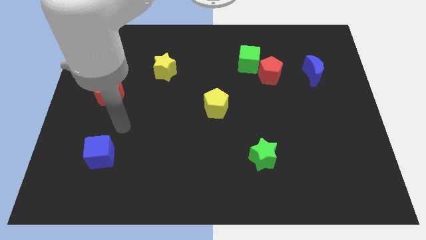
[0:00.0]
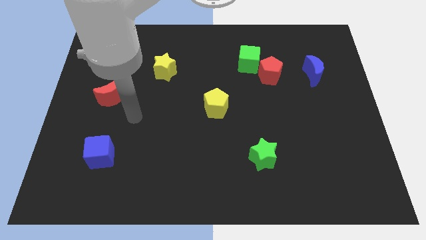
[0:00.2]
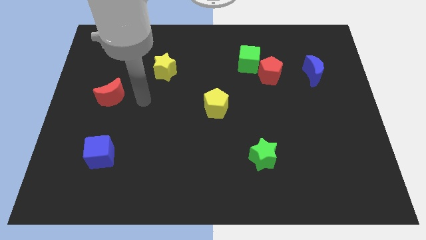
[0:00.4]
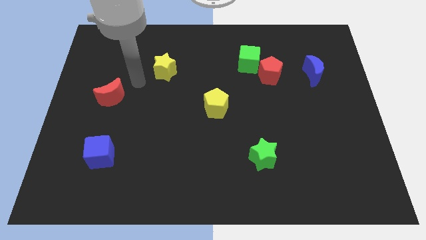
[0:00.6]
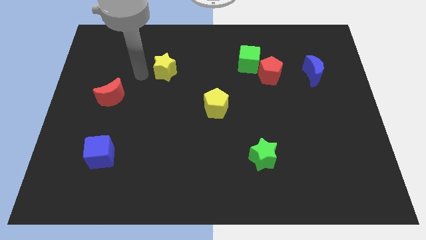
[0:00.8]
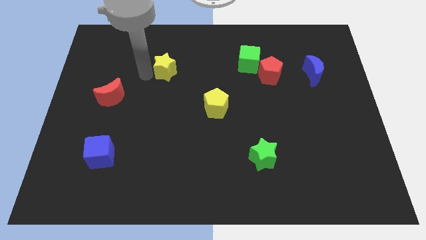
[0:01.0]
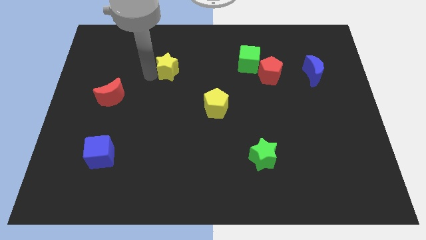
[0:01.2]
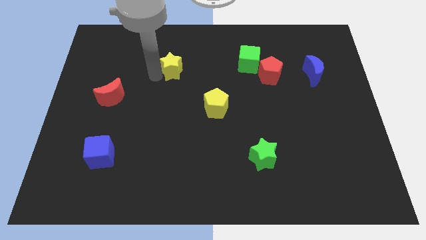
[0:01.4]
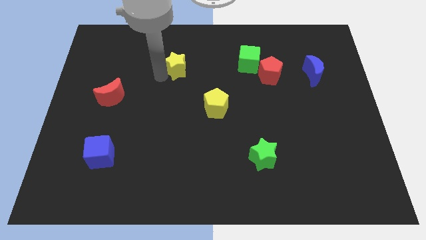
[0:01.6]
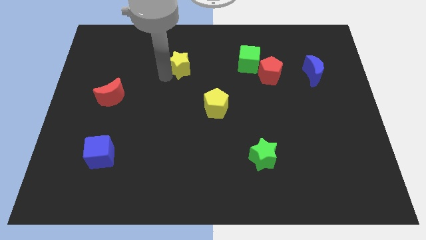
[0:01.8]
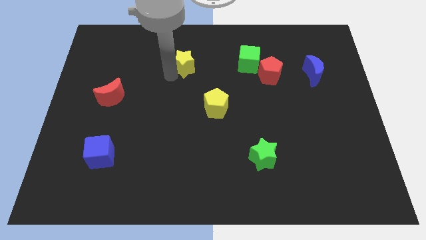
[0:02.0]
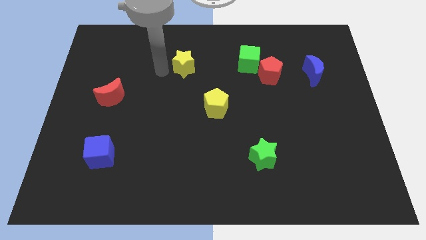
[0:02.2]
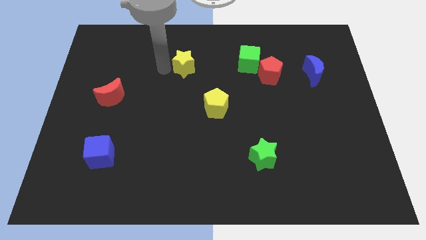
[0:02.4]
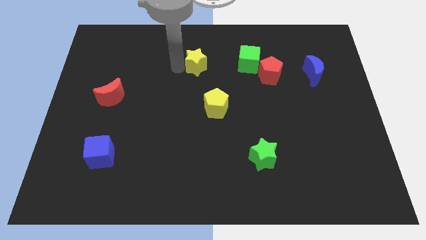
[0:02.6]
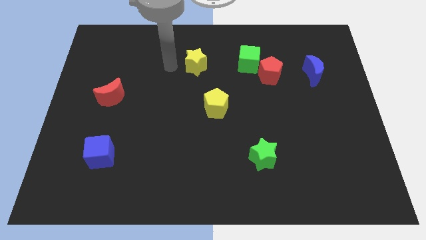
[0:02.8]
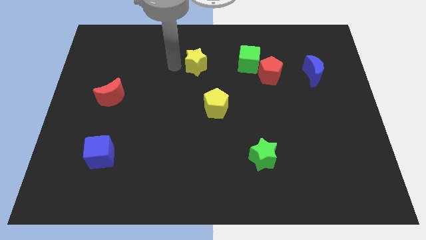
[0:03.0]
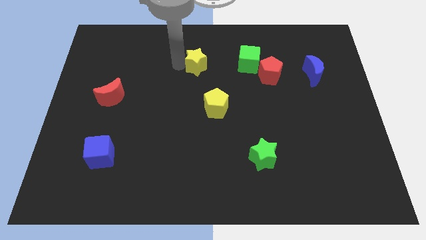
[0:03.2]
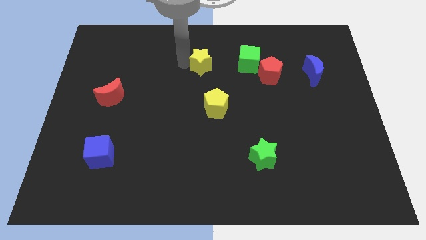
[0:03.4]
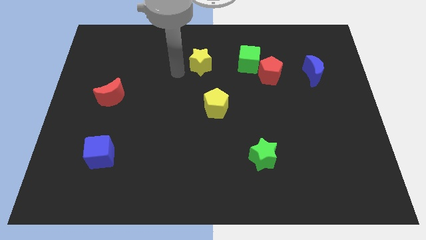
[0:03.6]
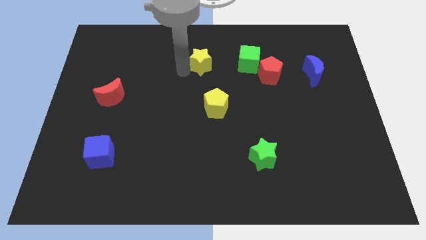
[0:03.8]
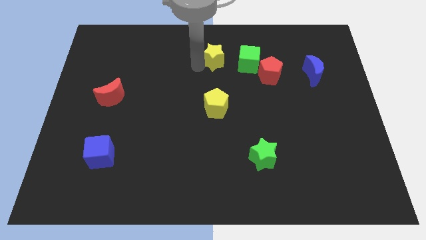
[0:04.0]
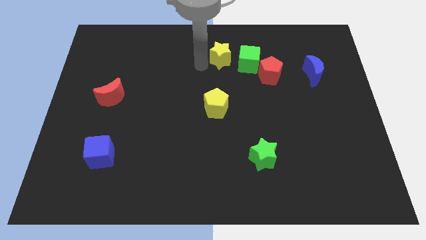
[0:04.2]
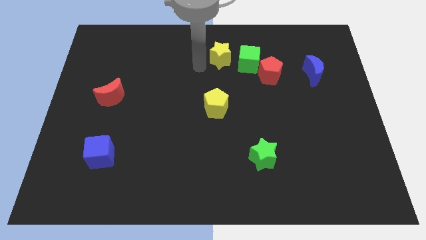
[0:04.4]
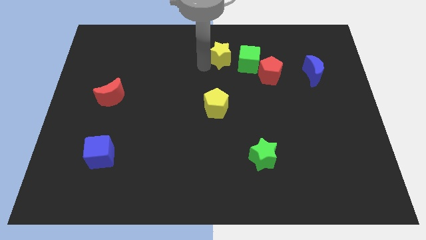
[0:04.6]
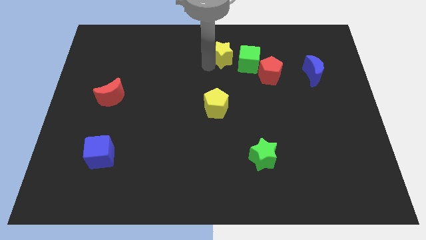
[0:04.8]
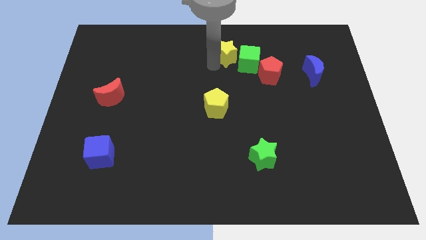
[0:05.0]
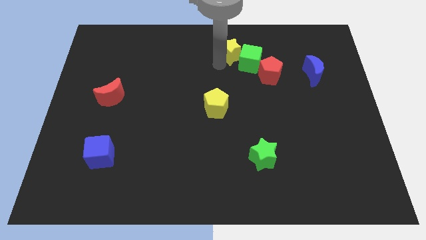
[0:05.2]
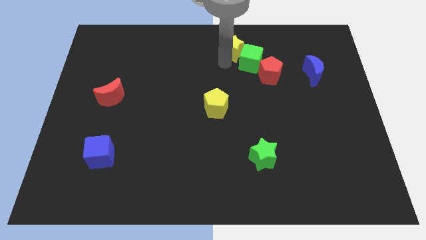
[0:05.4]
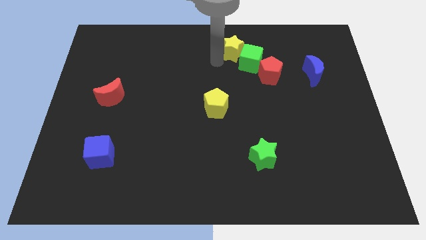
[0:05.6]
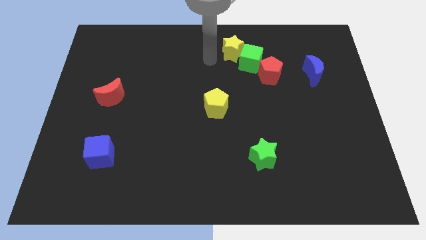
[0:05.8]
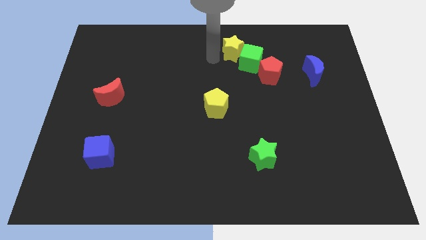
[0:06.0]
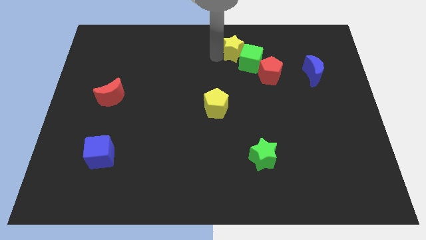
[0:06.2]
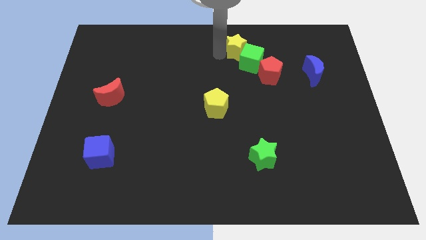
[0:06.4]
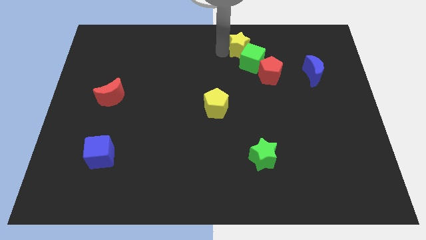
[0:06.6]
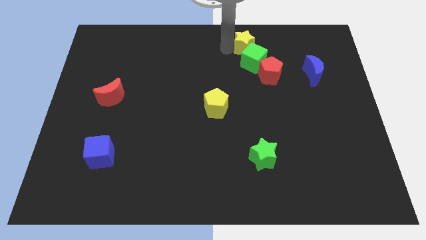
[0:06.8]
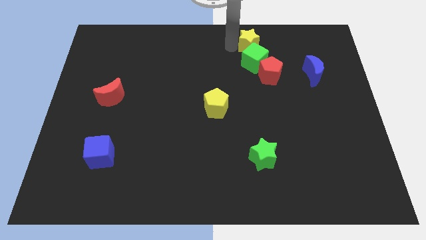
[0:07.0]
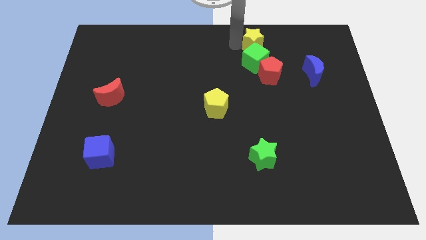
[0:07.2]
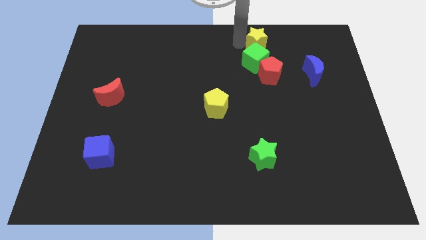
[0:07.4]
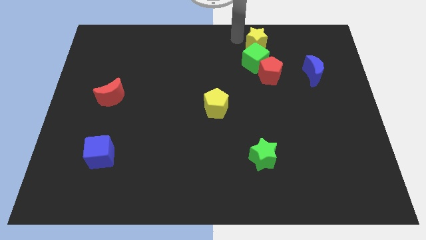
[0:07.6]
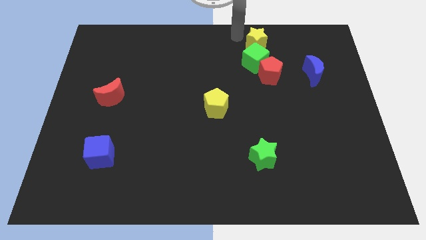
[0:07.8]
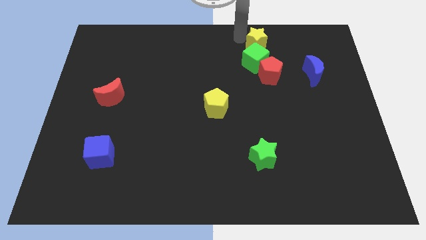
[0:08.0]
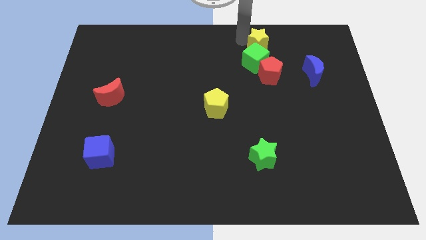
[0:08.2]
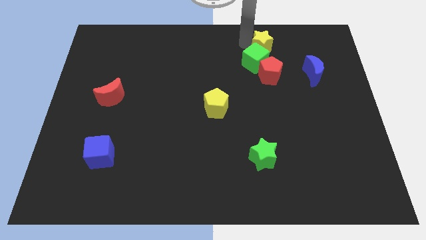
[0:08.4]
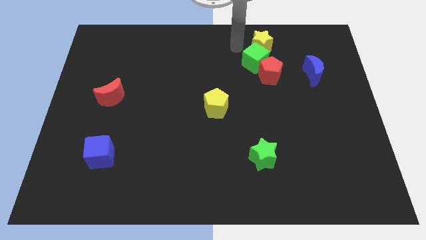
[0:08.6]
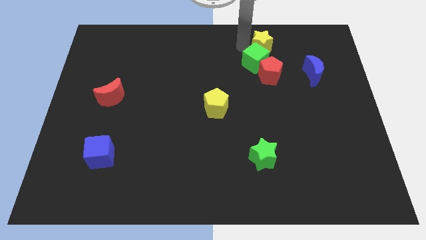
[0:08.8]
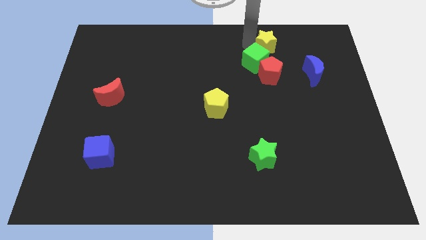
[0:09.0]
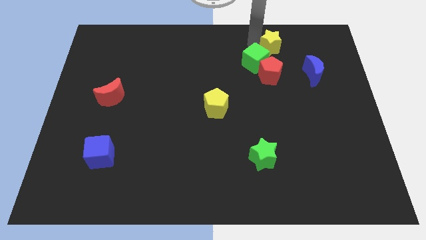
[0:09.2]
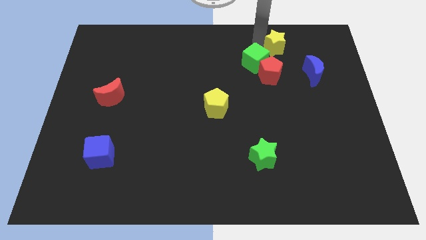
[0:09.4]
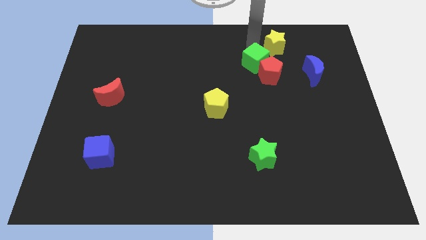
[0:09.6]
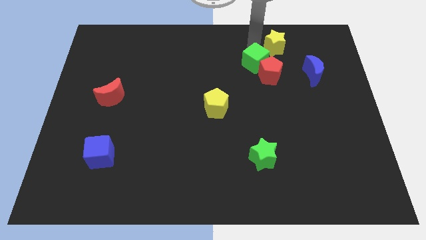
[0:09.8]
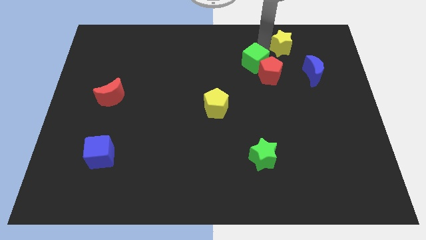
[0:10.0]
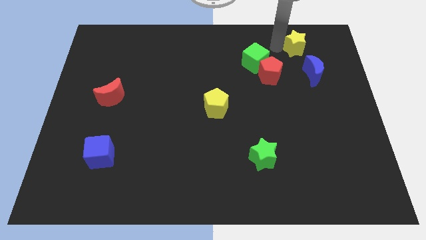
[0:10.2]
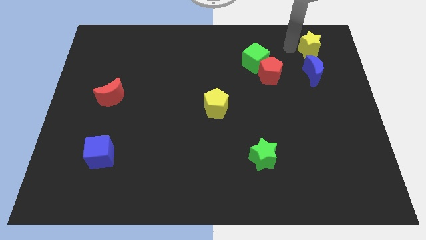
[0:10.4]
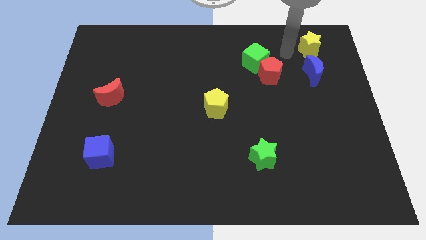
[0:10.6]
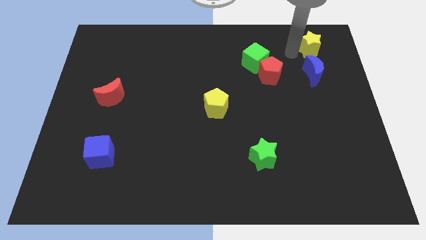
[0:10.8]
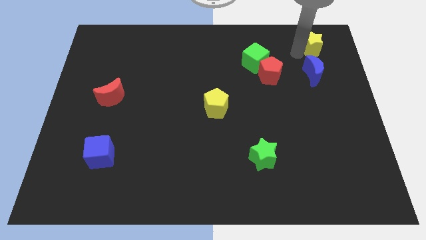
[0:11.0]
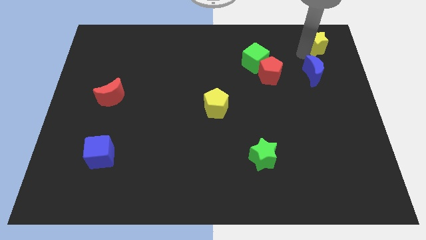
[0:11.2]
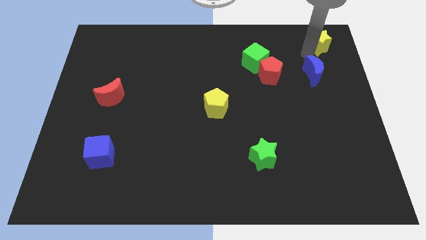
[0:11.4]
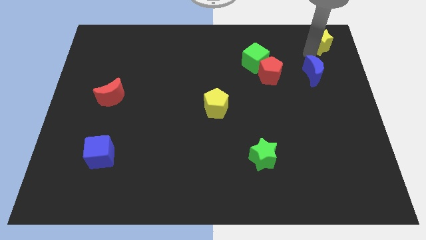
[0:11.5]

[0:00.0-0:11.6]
push the yellow star to the top right corner
